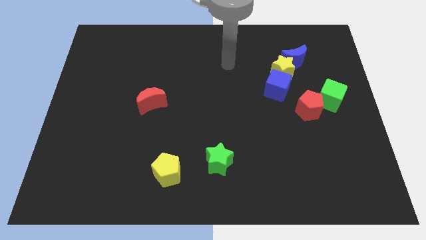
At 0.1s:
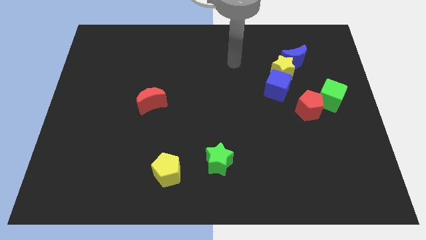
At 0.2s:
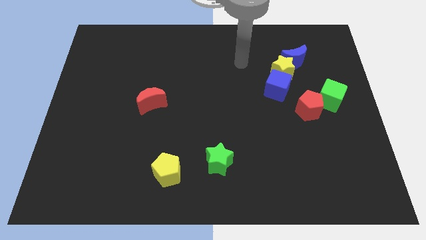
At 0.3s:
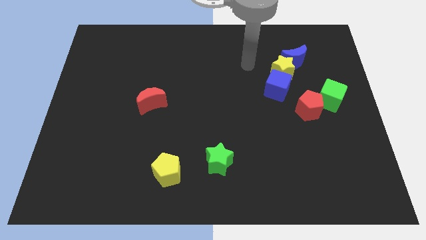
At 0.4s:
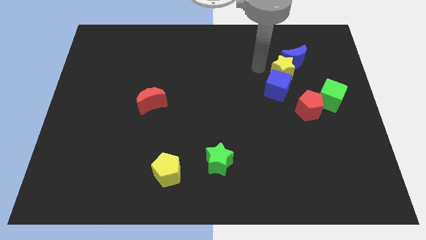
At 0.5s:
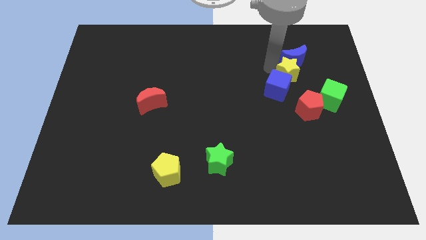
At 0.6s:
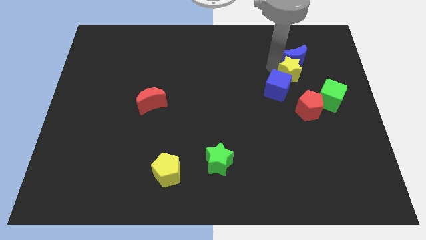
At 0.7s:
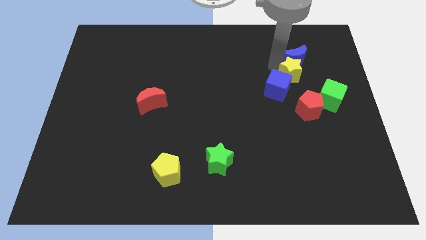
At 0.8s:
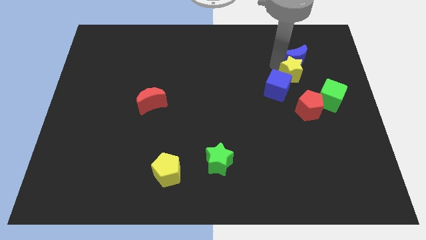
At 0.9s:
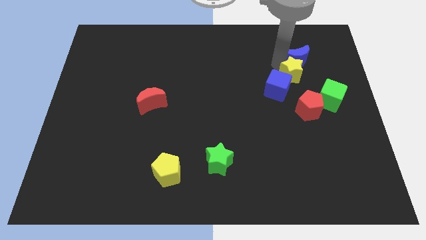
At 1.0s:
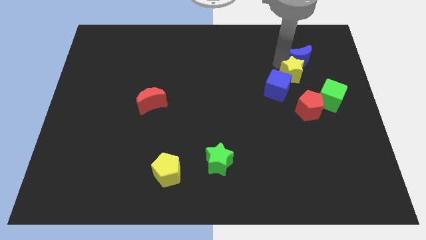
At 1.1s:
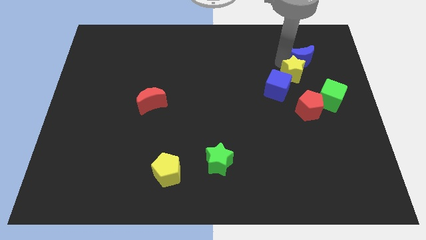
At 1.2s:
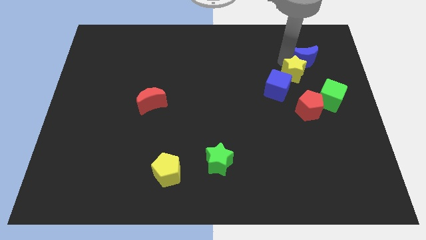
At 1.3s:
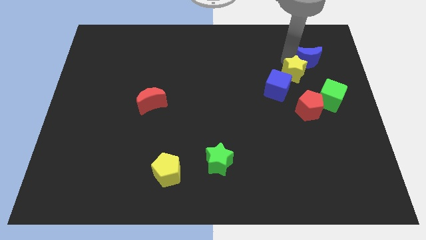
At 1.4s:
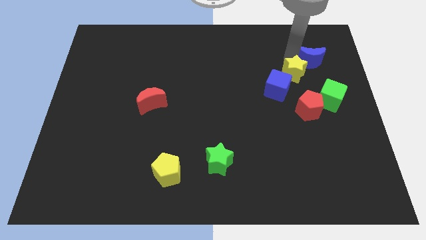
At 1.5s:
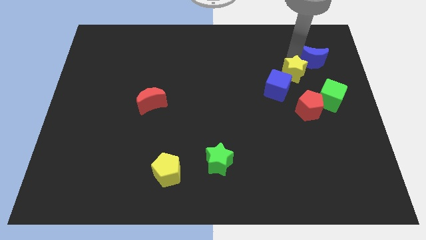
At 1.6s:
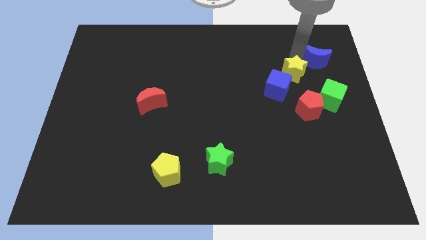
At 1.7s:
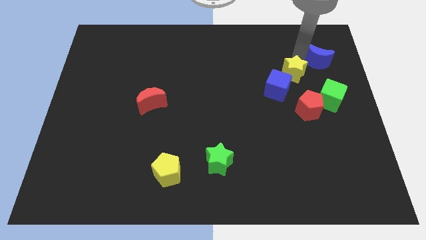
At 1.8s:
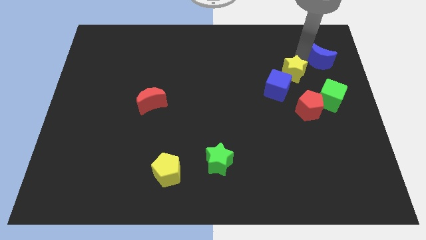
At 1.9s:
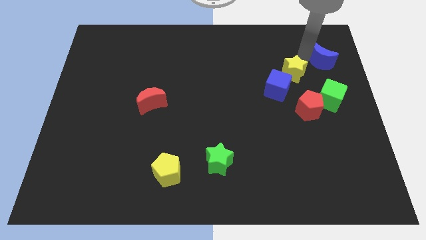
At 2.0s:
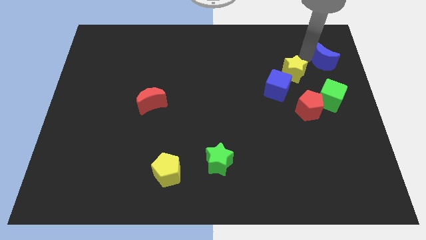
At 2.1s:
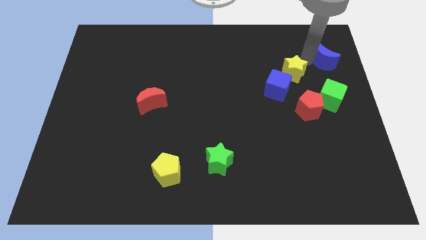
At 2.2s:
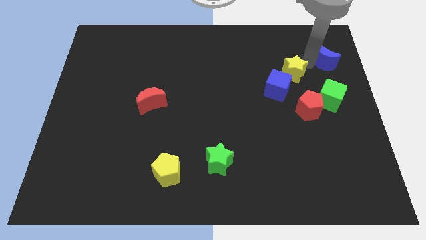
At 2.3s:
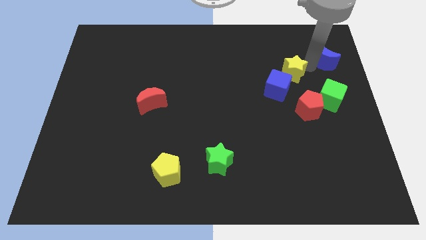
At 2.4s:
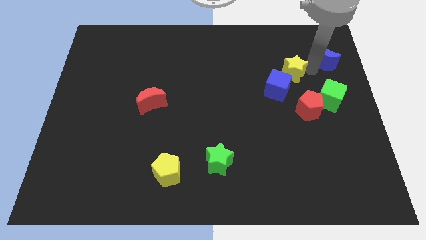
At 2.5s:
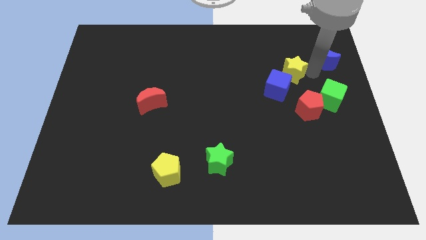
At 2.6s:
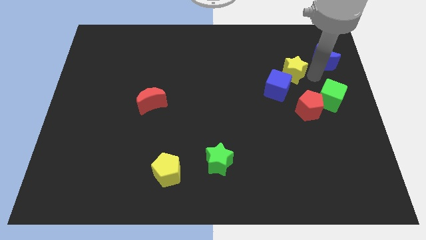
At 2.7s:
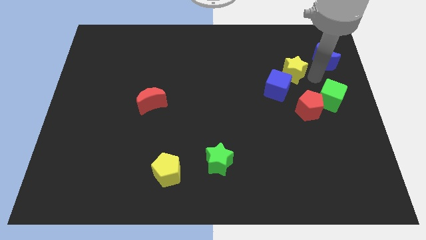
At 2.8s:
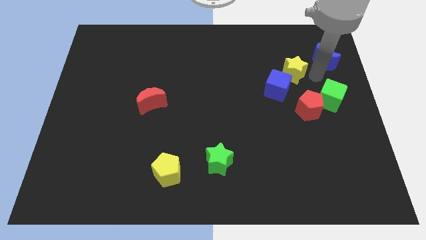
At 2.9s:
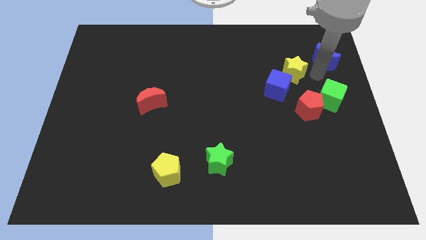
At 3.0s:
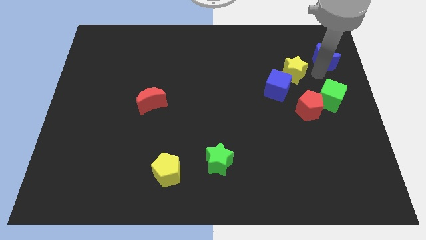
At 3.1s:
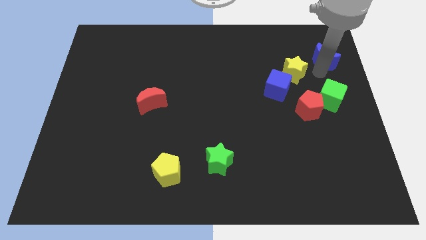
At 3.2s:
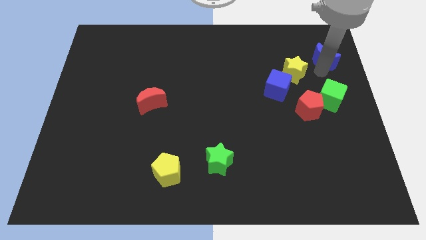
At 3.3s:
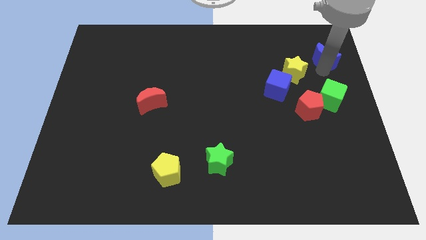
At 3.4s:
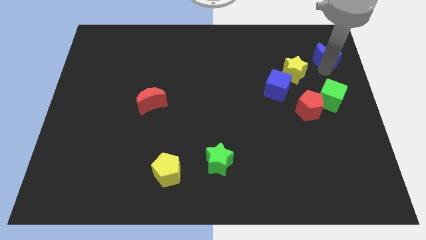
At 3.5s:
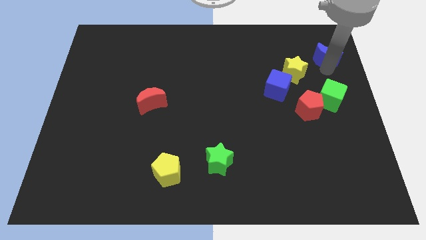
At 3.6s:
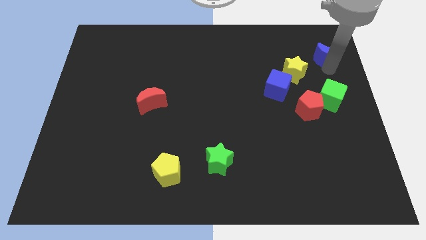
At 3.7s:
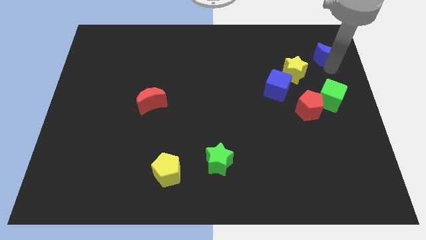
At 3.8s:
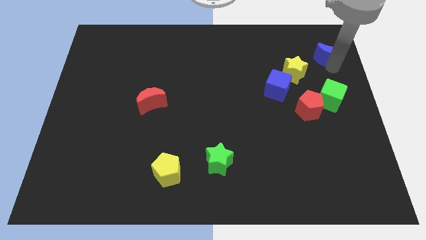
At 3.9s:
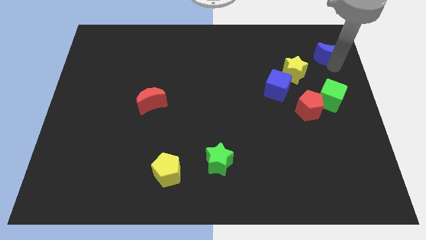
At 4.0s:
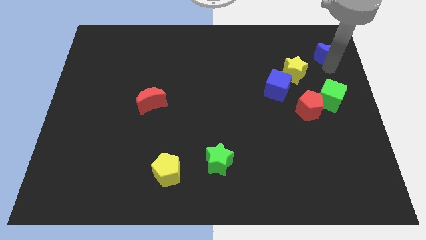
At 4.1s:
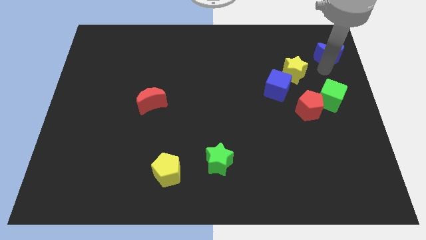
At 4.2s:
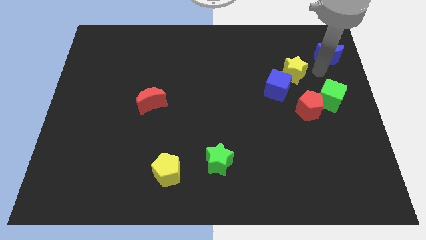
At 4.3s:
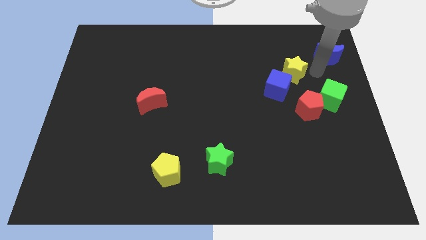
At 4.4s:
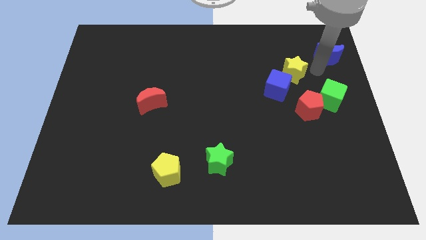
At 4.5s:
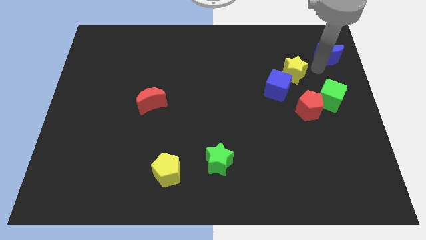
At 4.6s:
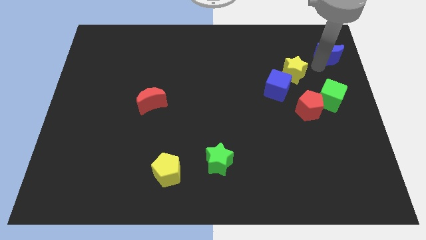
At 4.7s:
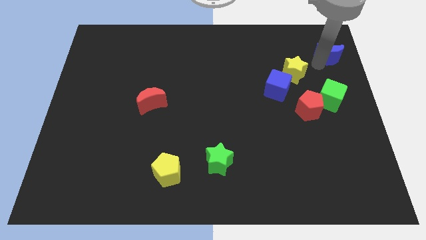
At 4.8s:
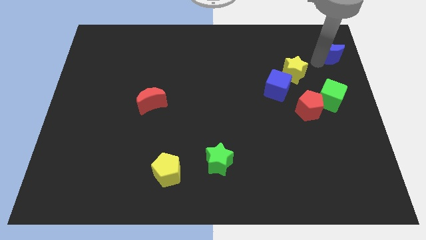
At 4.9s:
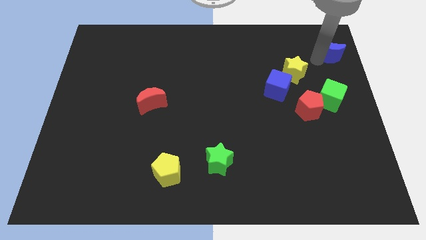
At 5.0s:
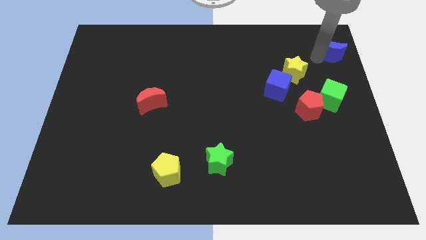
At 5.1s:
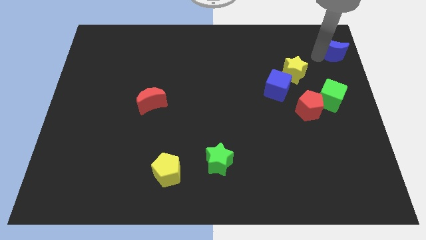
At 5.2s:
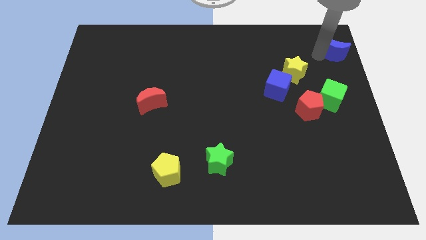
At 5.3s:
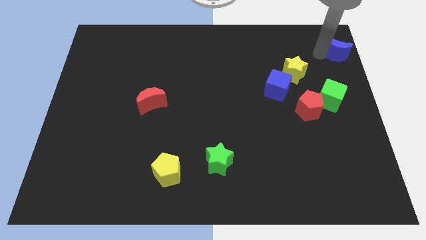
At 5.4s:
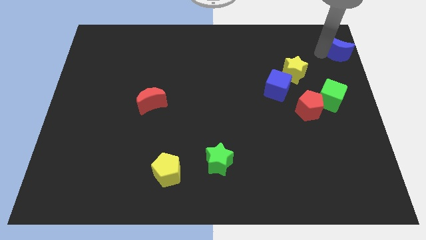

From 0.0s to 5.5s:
slide the blue moon to the top right of the board

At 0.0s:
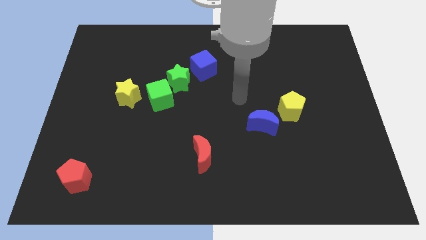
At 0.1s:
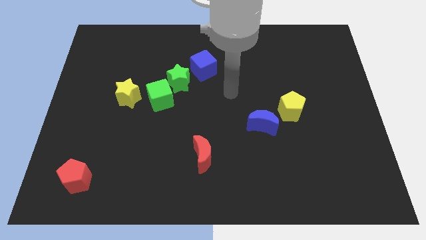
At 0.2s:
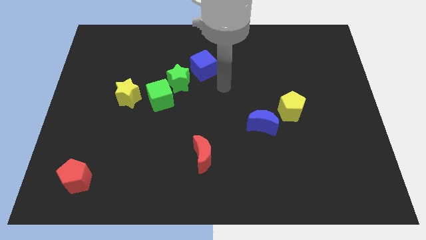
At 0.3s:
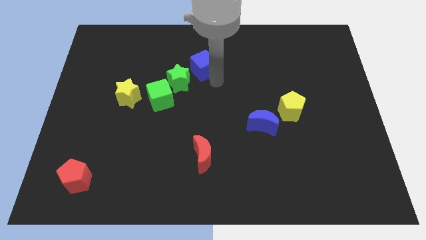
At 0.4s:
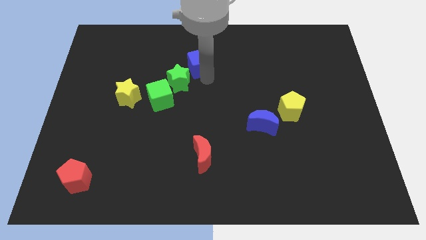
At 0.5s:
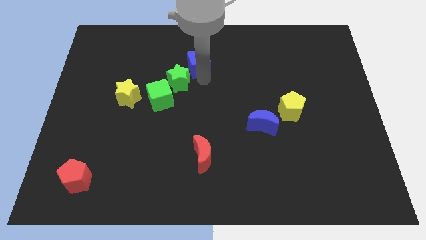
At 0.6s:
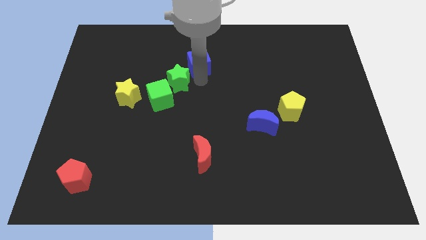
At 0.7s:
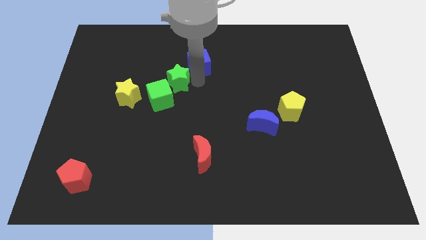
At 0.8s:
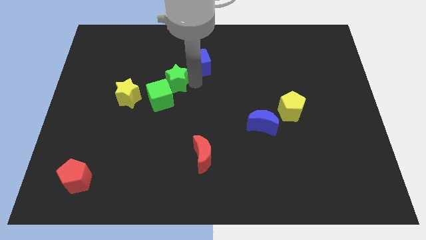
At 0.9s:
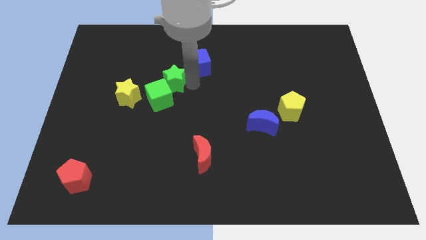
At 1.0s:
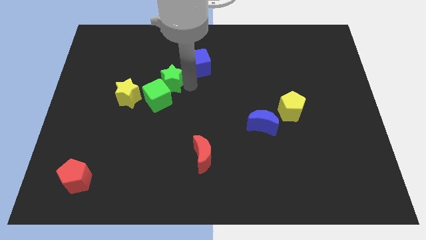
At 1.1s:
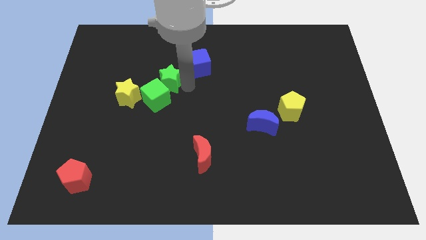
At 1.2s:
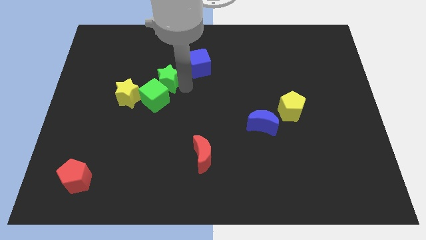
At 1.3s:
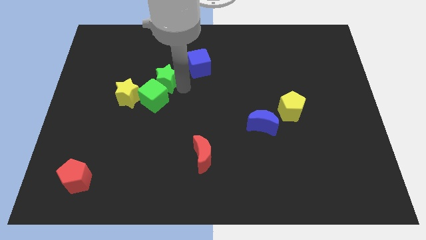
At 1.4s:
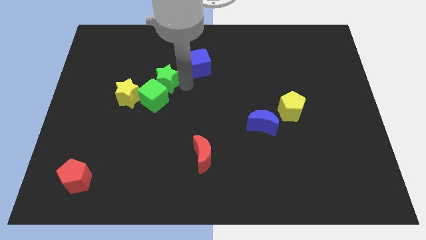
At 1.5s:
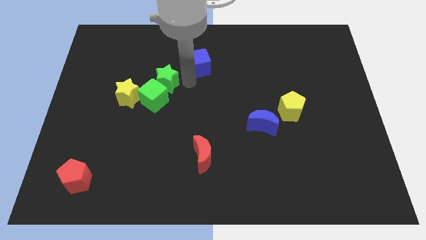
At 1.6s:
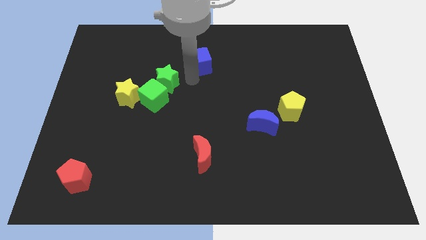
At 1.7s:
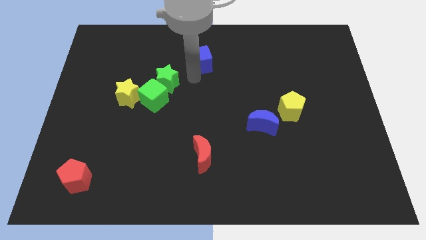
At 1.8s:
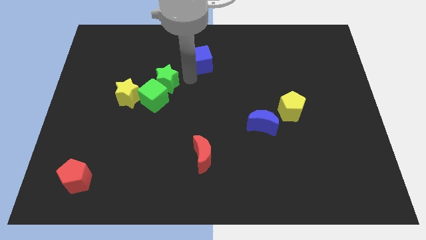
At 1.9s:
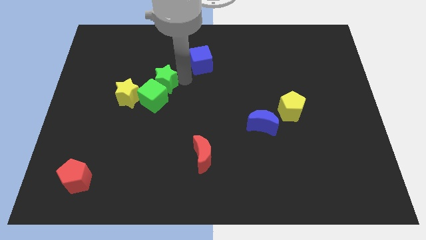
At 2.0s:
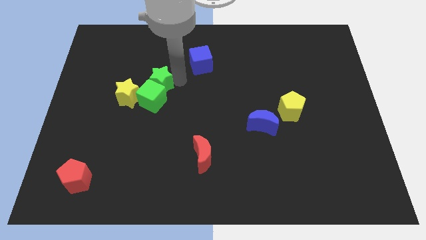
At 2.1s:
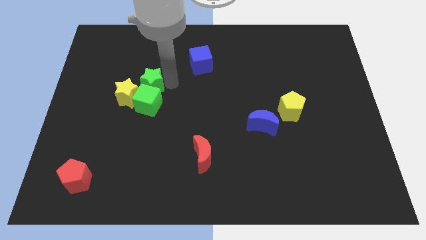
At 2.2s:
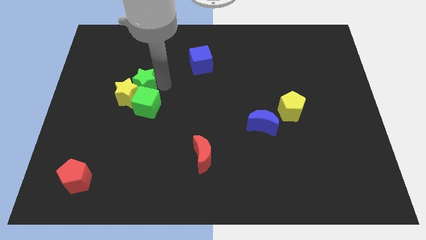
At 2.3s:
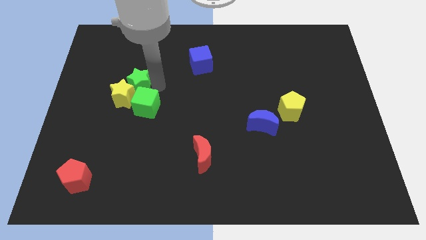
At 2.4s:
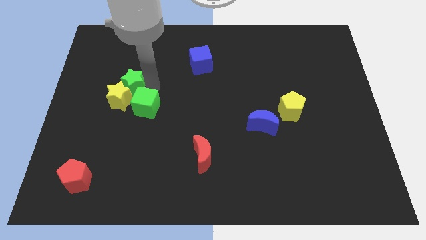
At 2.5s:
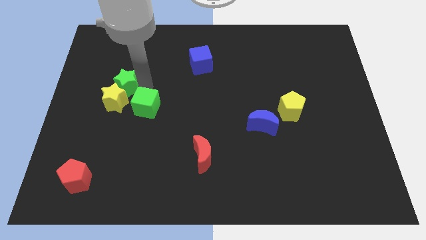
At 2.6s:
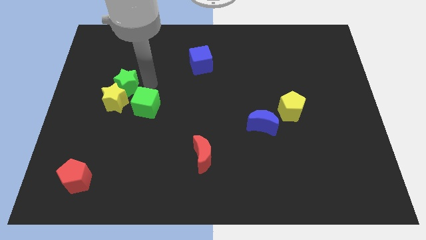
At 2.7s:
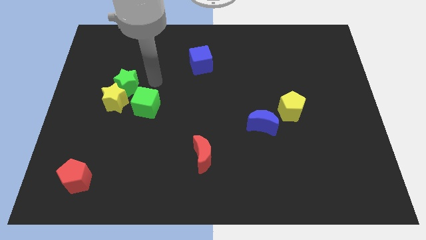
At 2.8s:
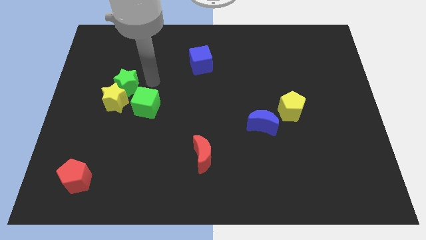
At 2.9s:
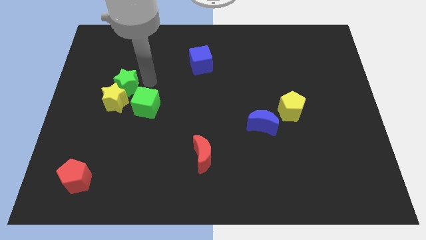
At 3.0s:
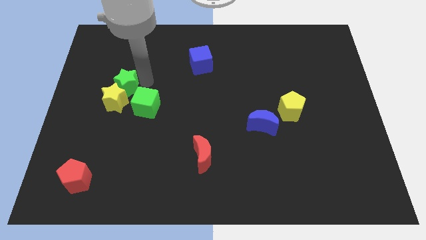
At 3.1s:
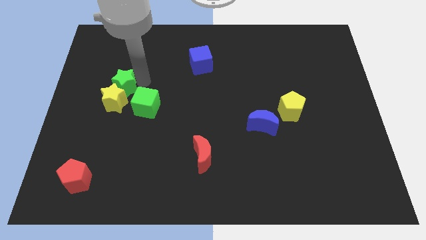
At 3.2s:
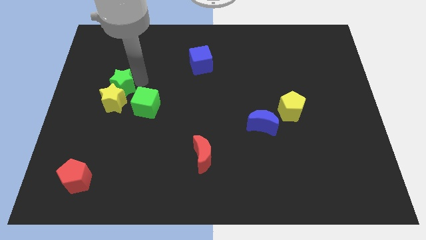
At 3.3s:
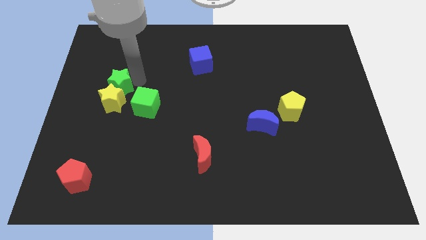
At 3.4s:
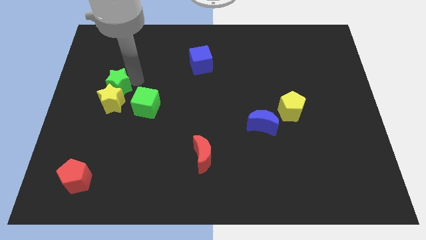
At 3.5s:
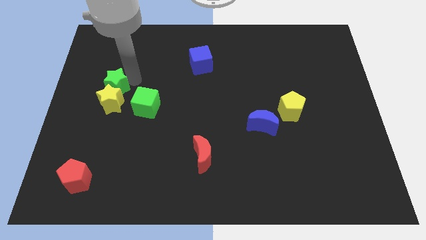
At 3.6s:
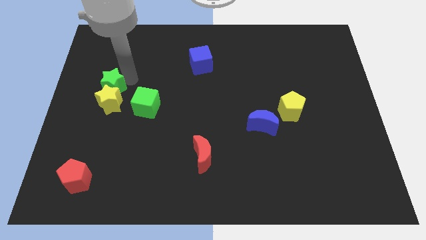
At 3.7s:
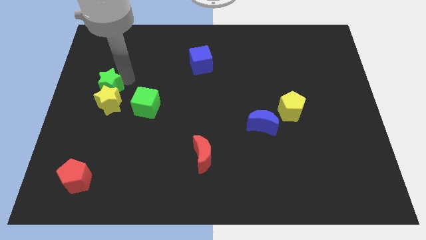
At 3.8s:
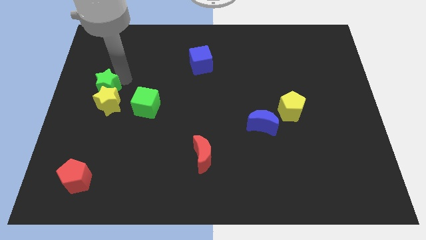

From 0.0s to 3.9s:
slide the green star to the left side
